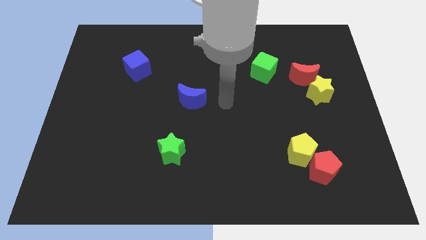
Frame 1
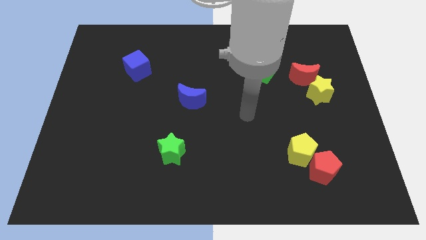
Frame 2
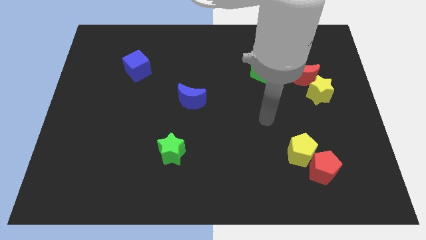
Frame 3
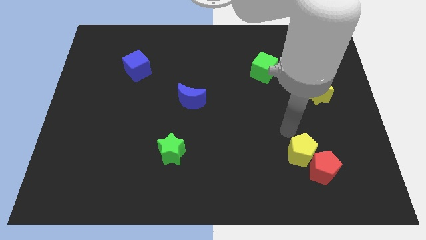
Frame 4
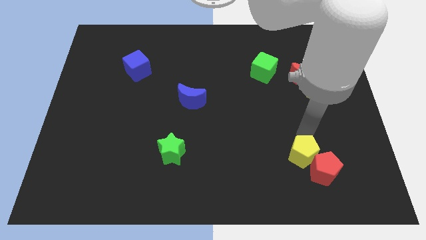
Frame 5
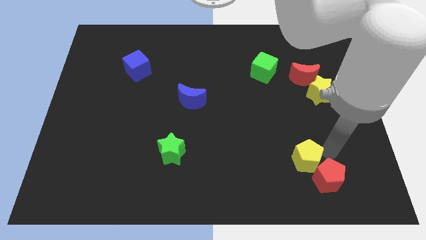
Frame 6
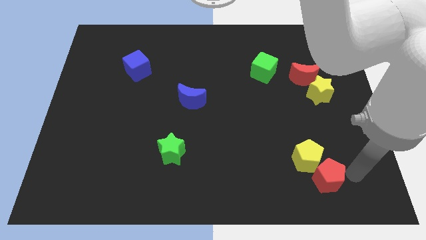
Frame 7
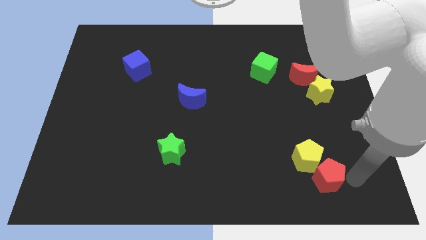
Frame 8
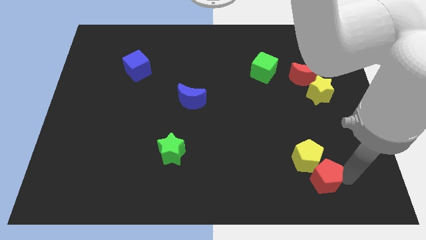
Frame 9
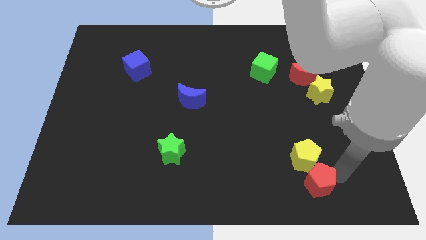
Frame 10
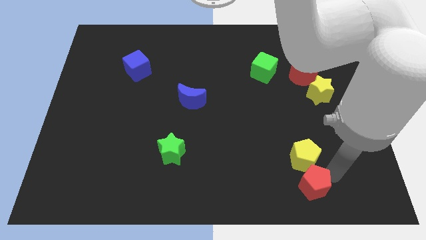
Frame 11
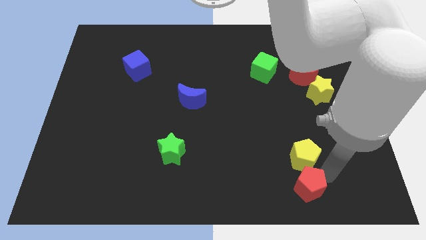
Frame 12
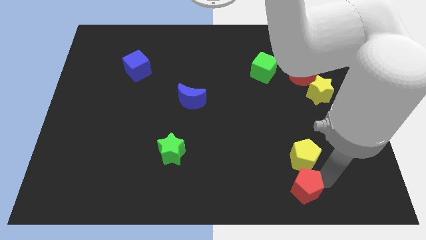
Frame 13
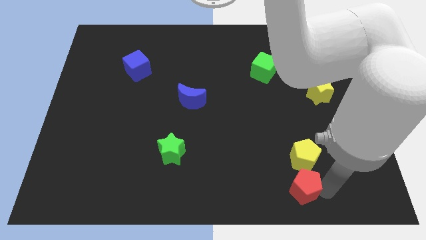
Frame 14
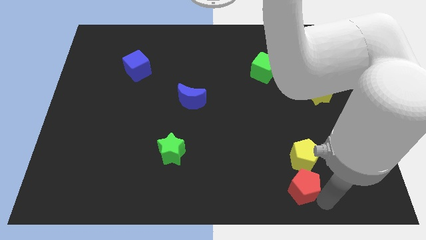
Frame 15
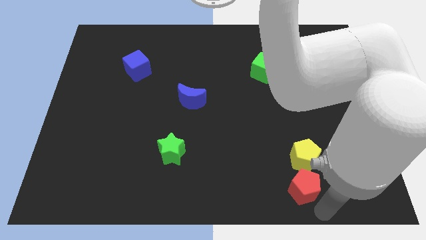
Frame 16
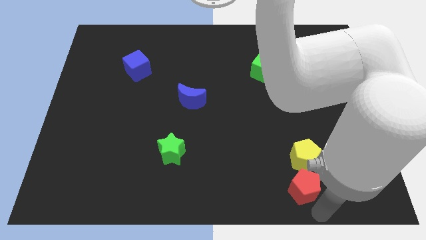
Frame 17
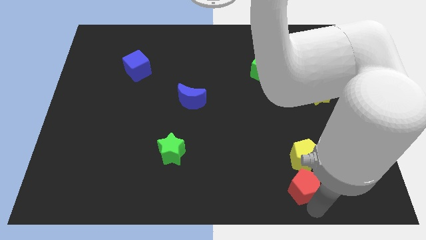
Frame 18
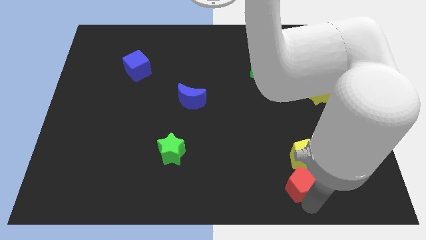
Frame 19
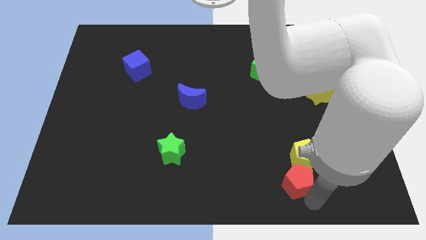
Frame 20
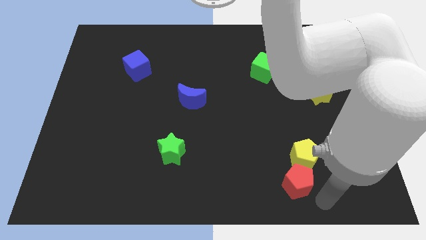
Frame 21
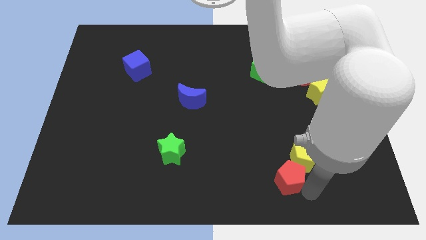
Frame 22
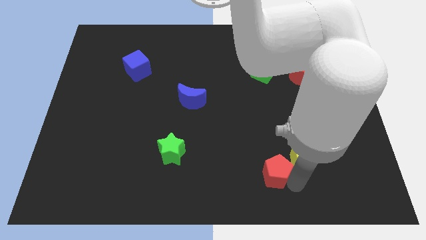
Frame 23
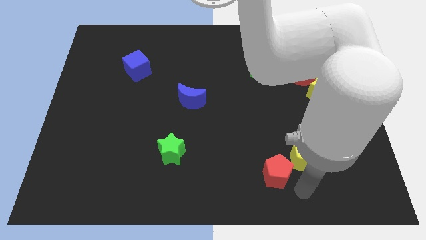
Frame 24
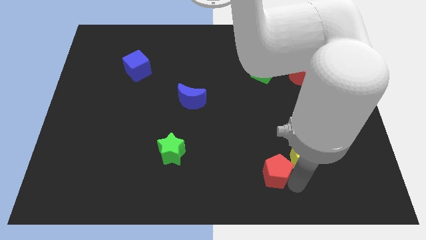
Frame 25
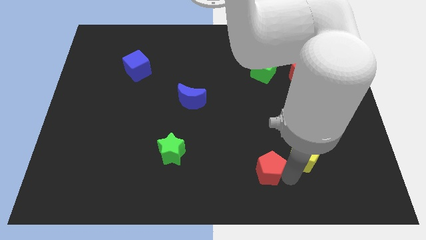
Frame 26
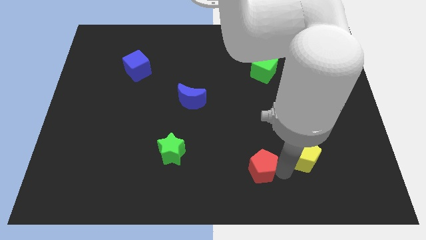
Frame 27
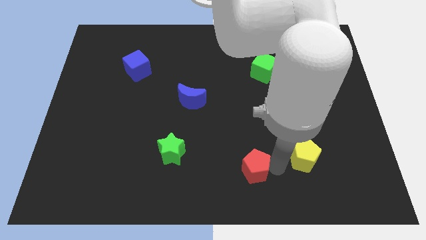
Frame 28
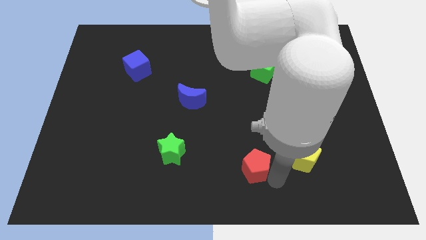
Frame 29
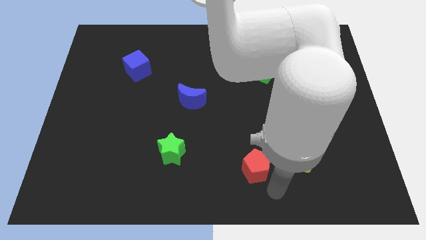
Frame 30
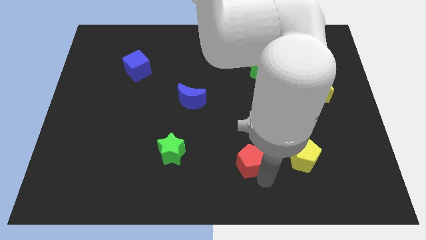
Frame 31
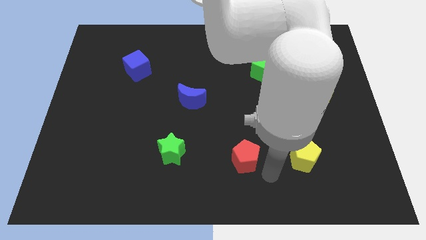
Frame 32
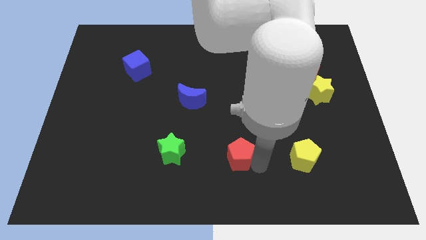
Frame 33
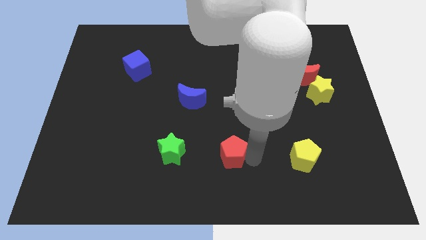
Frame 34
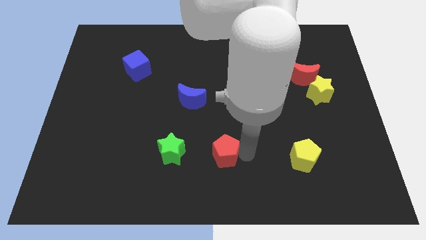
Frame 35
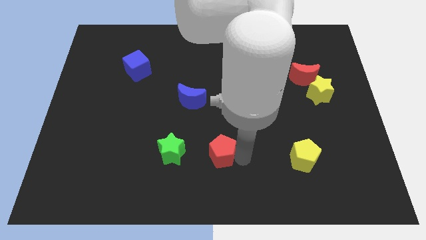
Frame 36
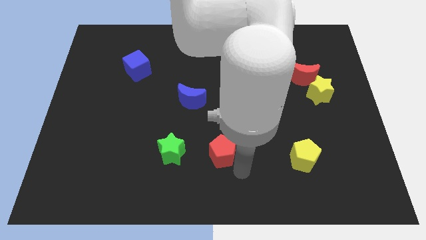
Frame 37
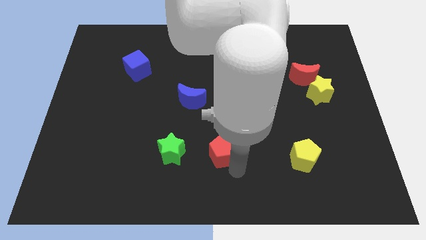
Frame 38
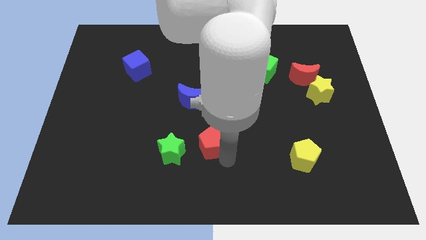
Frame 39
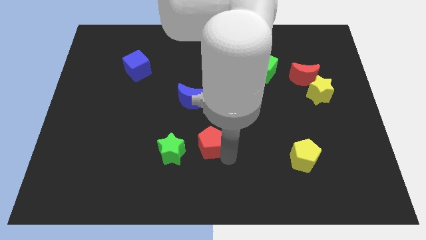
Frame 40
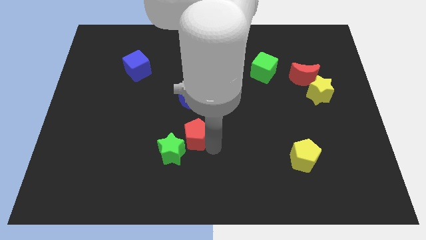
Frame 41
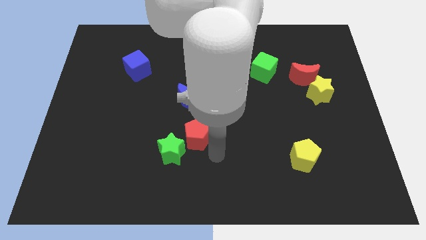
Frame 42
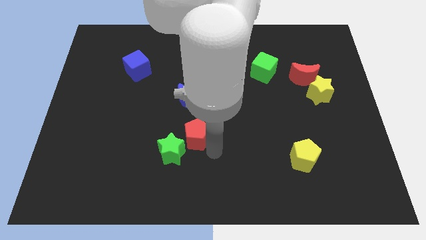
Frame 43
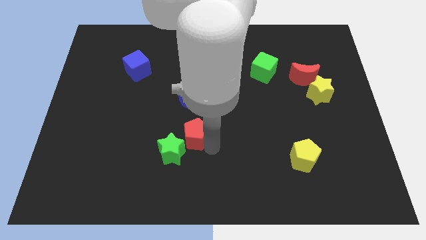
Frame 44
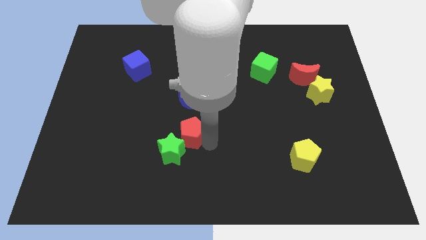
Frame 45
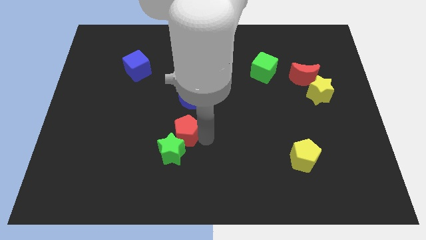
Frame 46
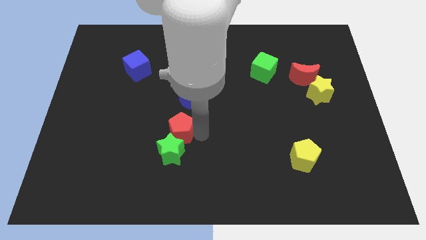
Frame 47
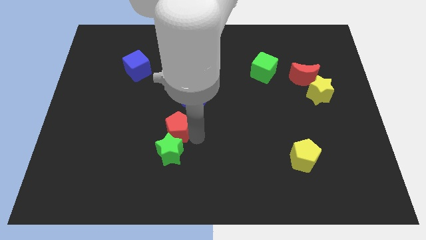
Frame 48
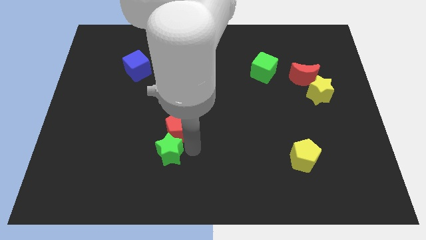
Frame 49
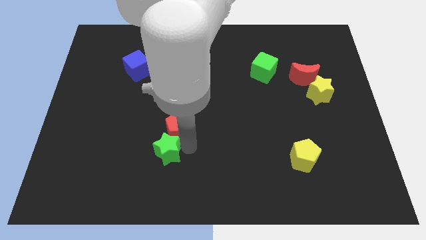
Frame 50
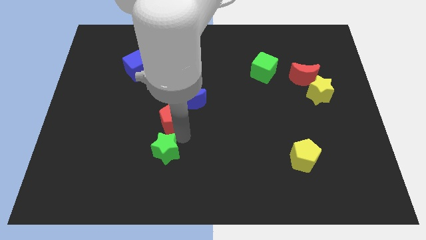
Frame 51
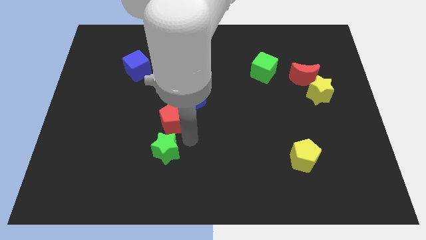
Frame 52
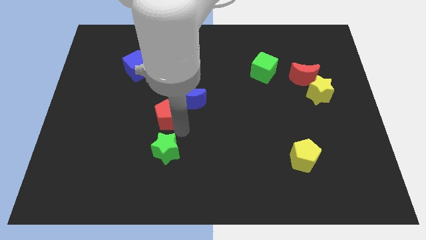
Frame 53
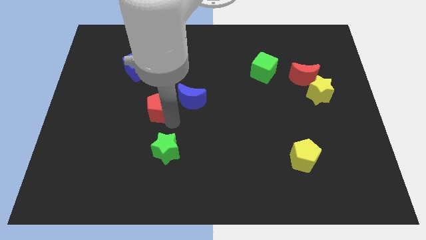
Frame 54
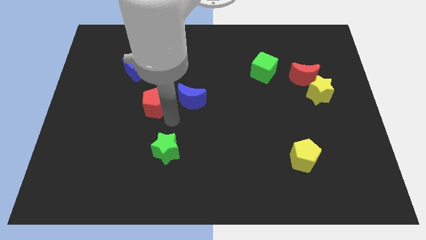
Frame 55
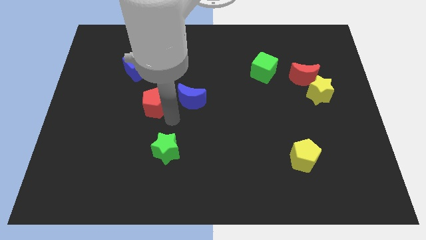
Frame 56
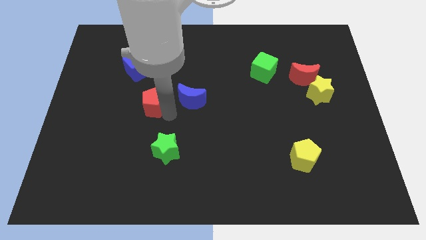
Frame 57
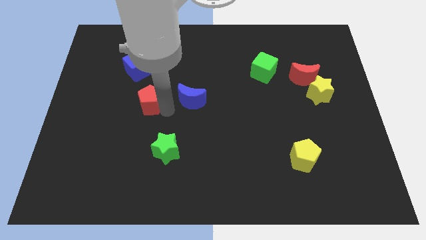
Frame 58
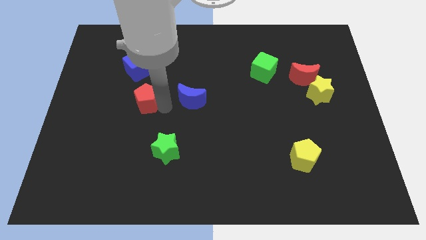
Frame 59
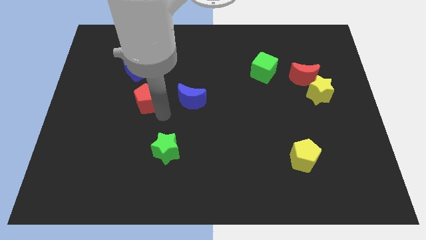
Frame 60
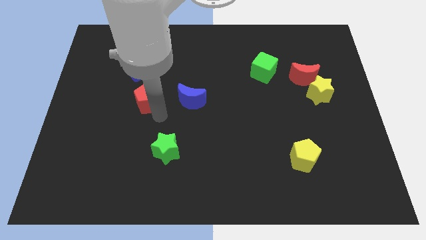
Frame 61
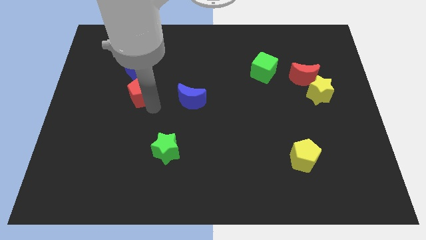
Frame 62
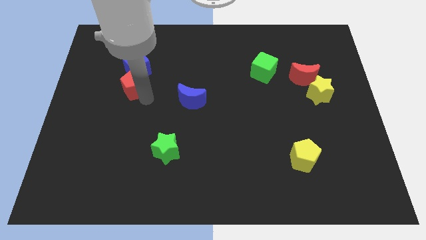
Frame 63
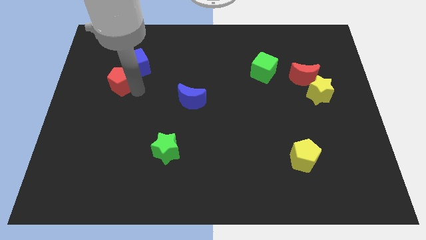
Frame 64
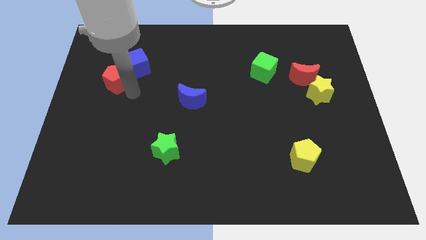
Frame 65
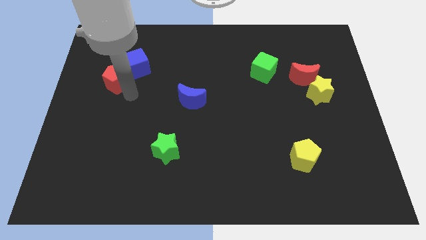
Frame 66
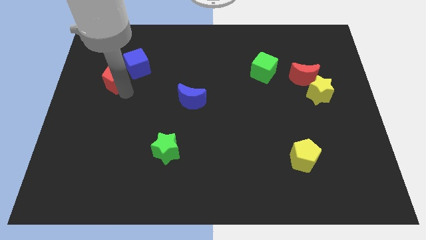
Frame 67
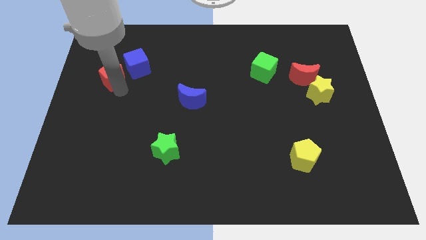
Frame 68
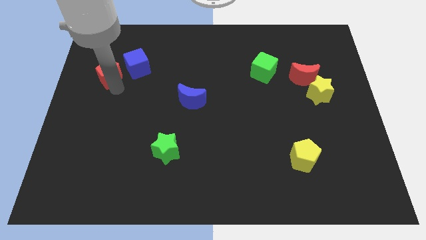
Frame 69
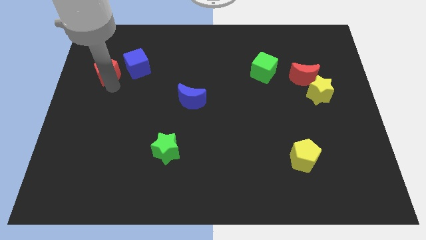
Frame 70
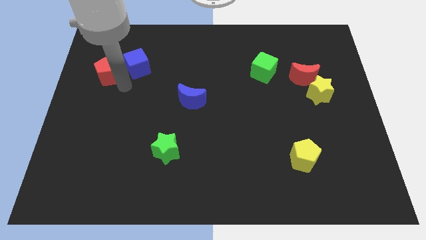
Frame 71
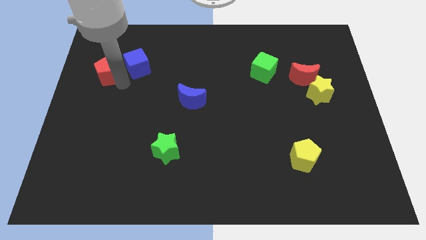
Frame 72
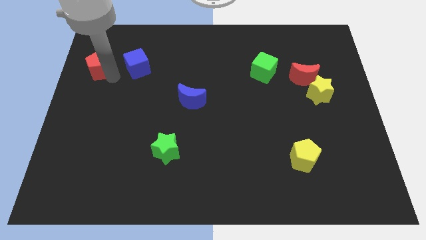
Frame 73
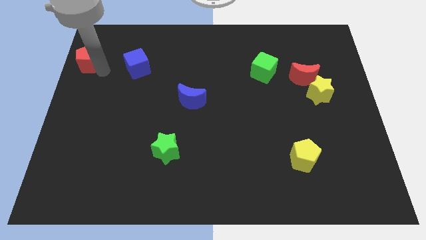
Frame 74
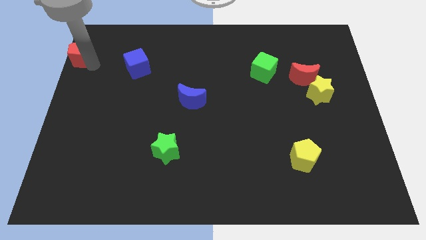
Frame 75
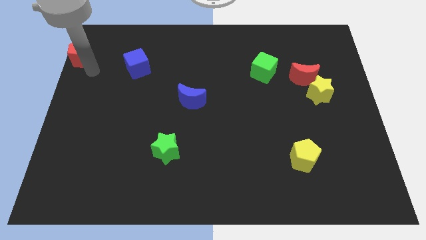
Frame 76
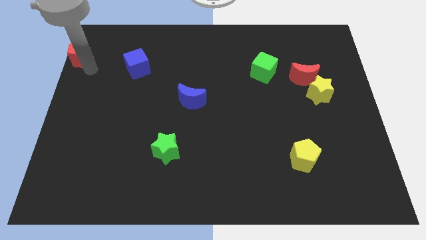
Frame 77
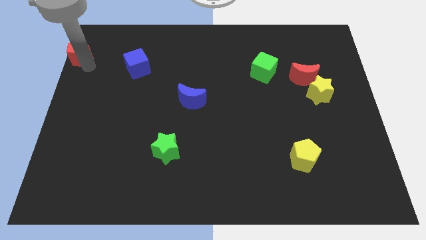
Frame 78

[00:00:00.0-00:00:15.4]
slide the red pentagon to the top left
